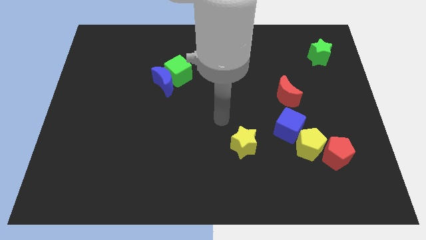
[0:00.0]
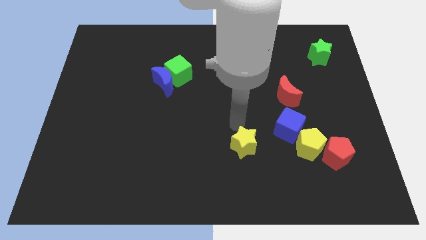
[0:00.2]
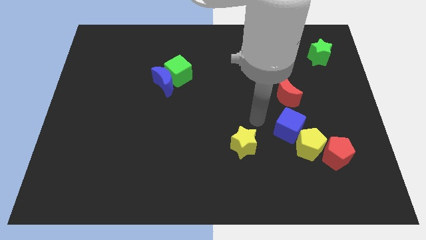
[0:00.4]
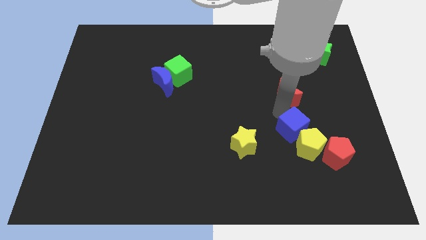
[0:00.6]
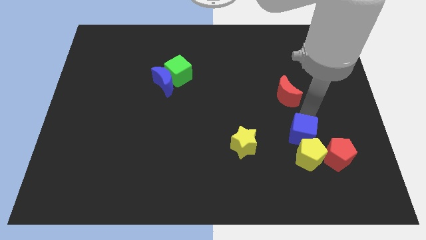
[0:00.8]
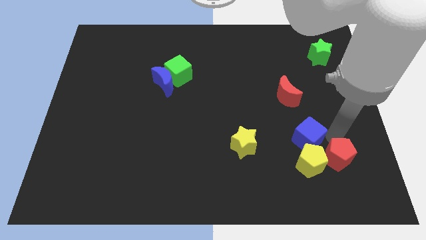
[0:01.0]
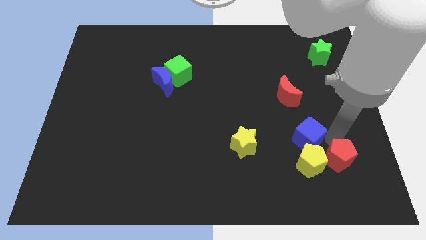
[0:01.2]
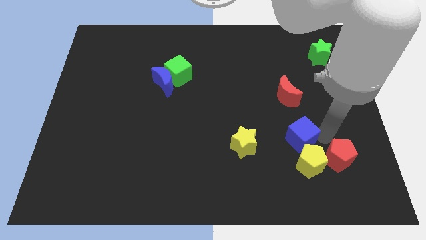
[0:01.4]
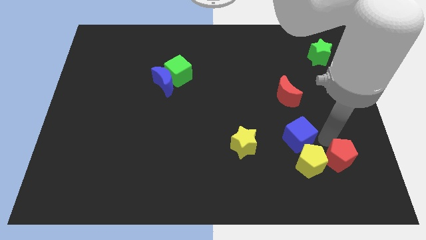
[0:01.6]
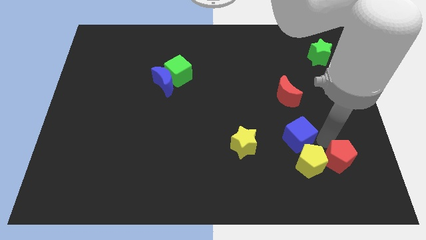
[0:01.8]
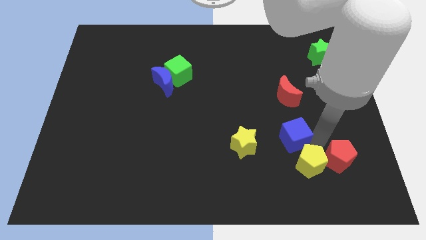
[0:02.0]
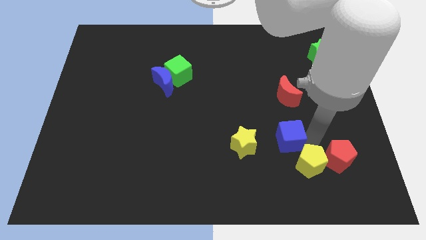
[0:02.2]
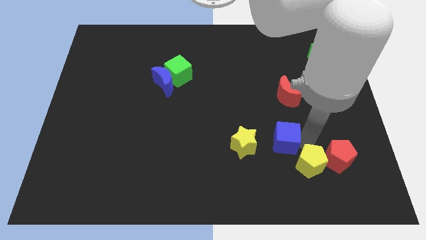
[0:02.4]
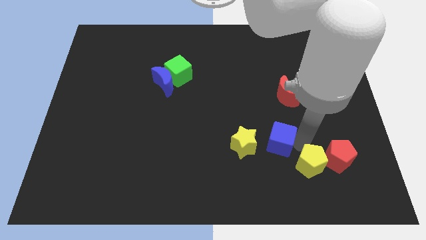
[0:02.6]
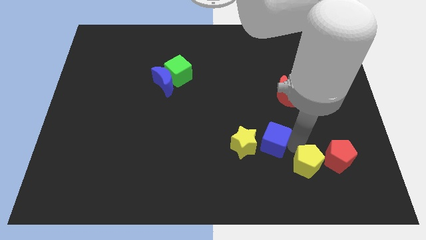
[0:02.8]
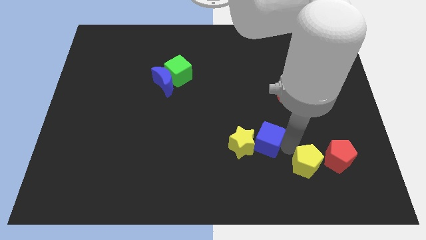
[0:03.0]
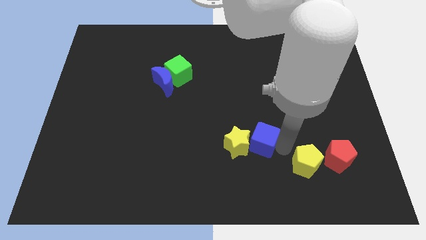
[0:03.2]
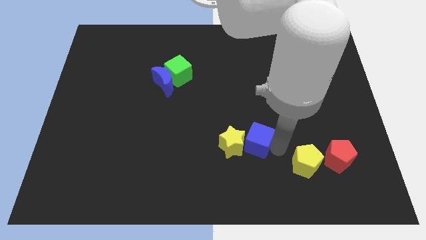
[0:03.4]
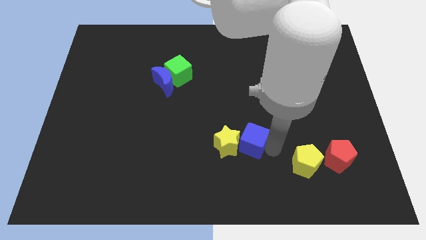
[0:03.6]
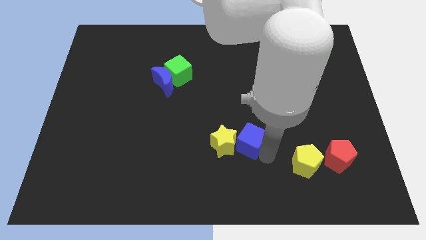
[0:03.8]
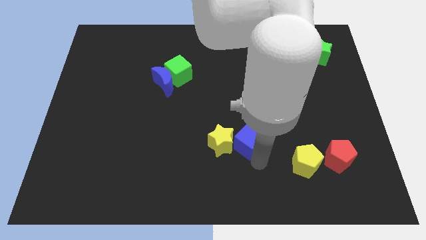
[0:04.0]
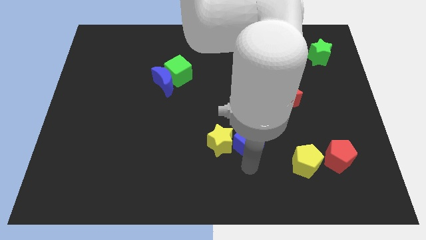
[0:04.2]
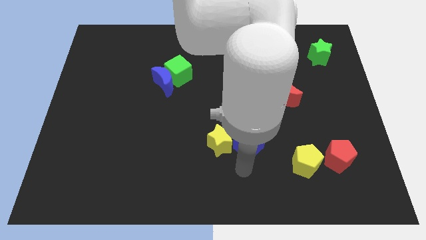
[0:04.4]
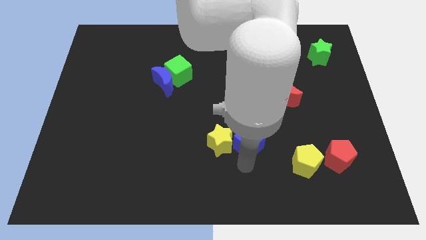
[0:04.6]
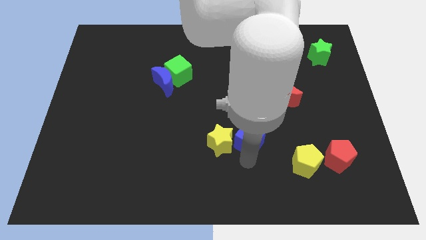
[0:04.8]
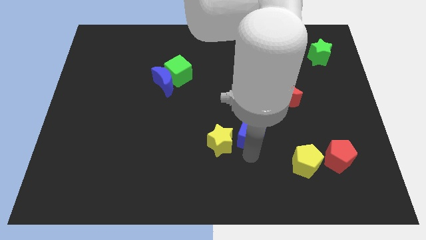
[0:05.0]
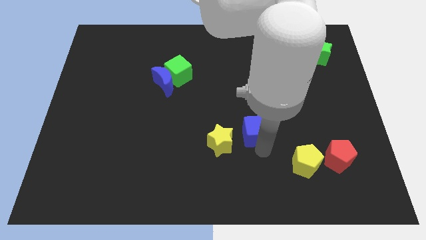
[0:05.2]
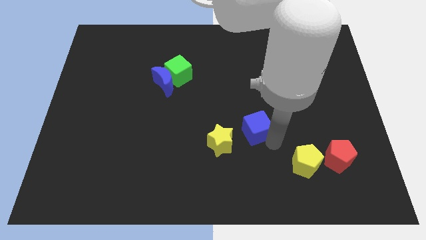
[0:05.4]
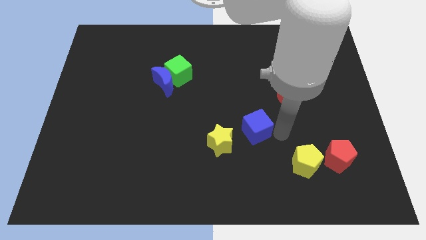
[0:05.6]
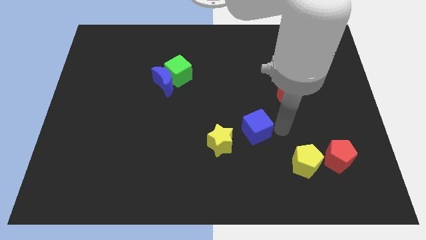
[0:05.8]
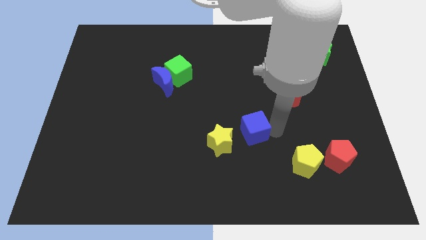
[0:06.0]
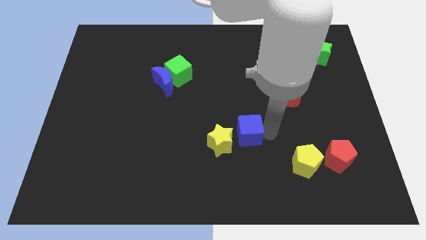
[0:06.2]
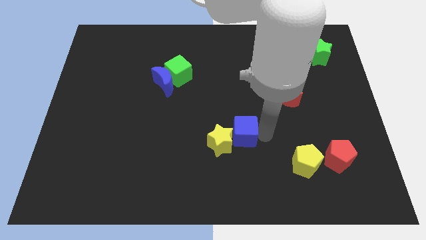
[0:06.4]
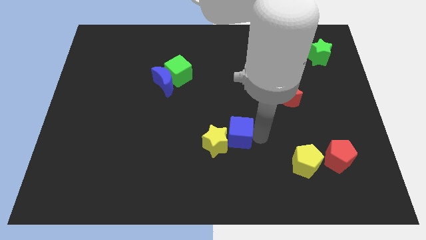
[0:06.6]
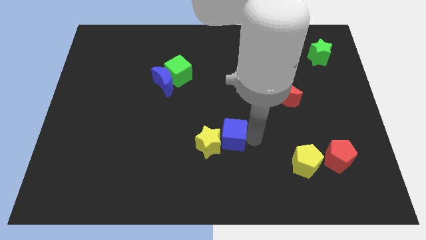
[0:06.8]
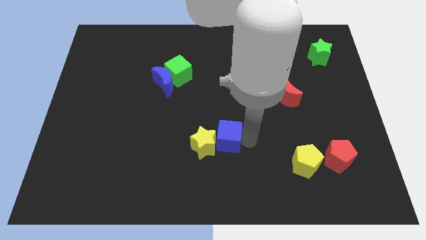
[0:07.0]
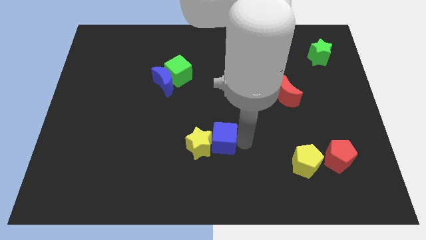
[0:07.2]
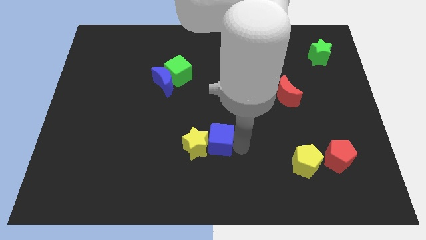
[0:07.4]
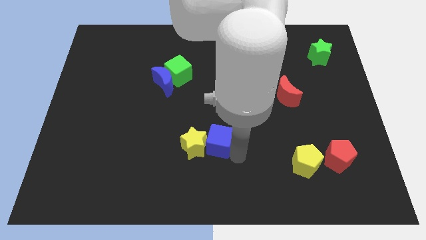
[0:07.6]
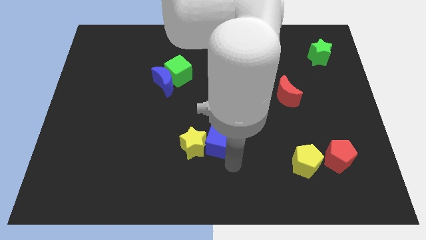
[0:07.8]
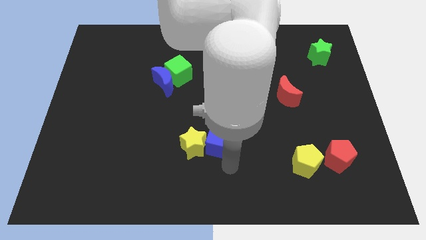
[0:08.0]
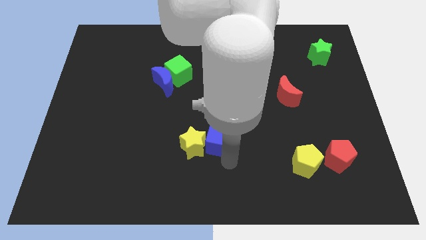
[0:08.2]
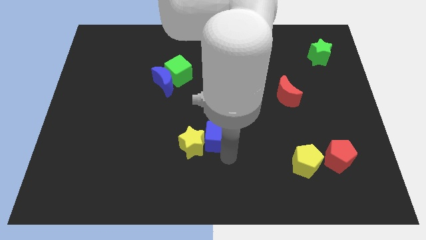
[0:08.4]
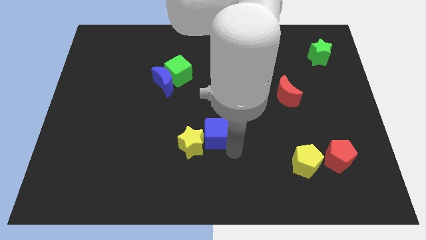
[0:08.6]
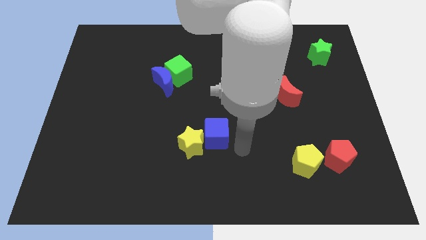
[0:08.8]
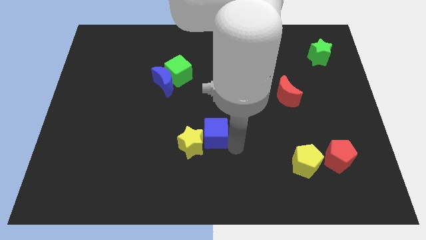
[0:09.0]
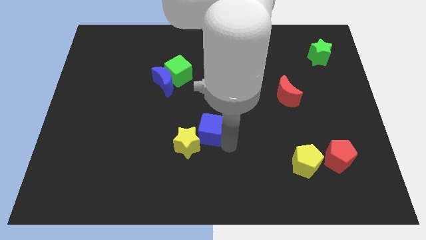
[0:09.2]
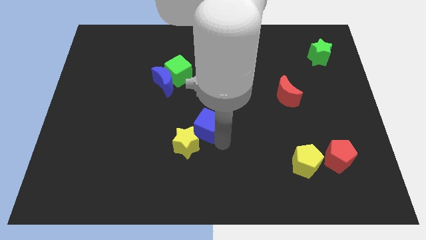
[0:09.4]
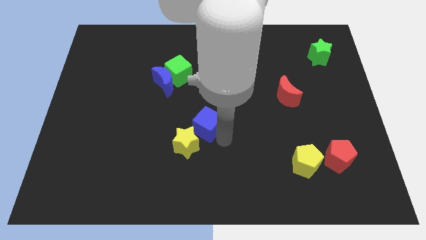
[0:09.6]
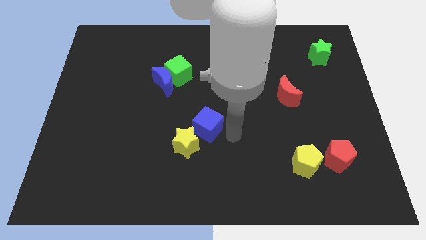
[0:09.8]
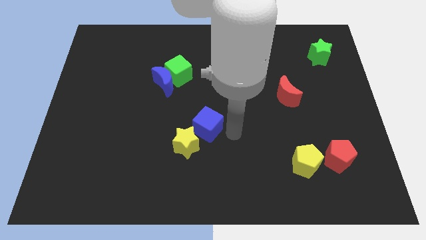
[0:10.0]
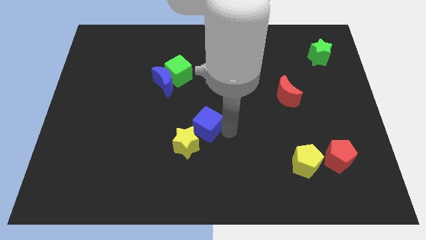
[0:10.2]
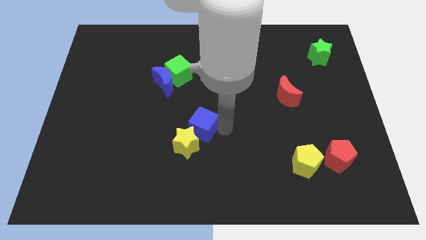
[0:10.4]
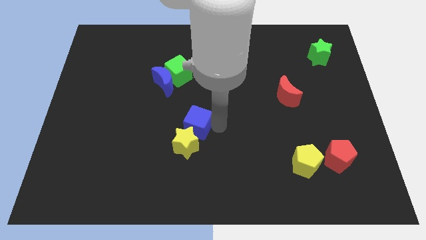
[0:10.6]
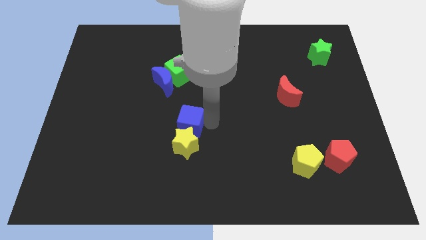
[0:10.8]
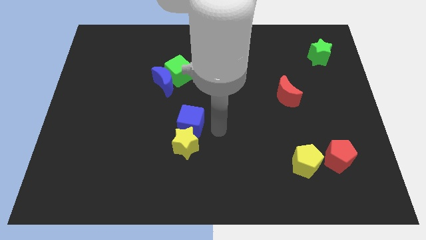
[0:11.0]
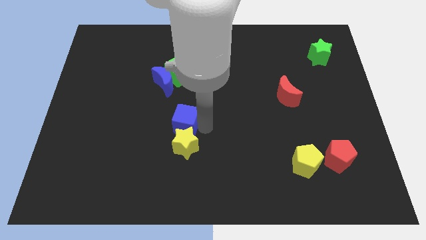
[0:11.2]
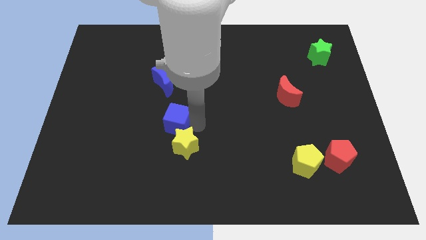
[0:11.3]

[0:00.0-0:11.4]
put the blue cube to the bottom of the blue moon

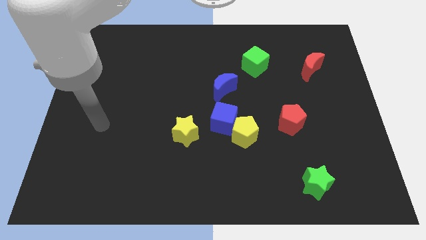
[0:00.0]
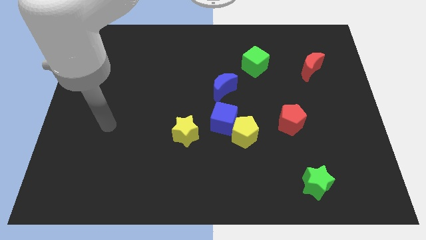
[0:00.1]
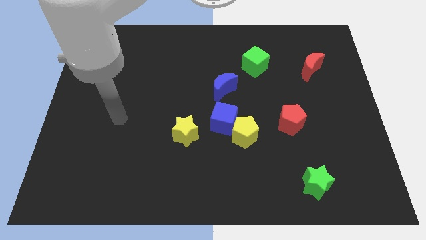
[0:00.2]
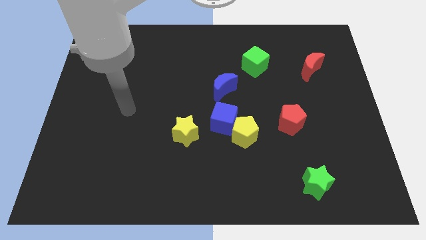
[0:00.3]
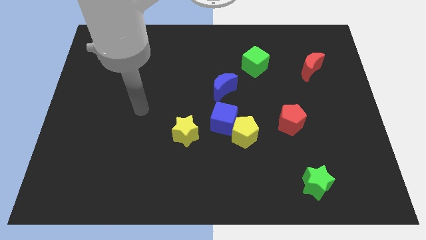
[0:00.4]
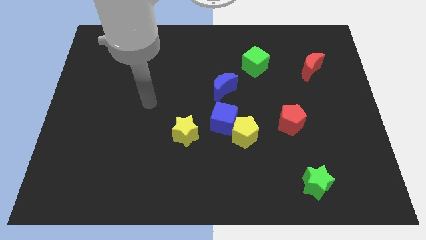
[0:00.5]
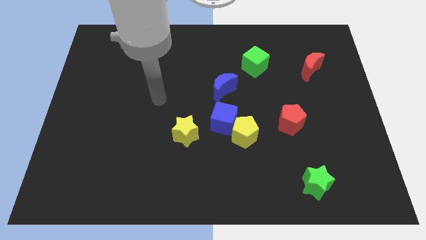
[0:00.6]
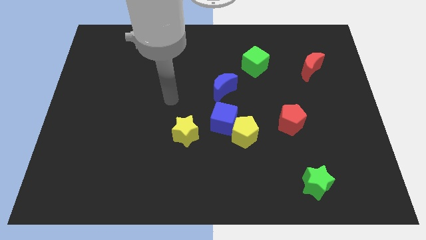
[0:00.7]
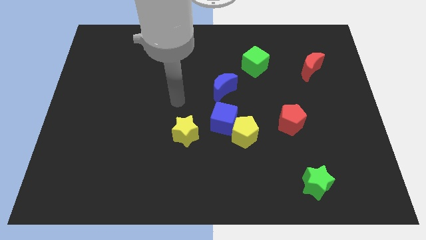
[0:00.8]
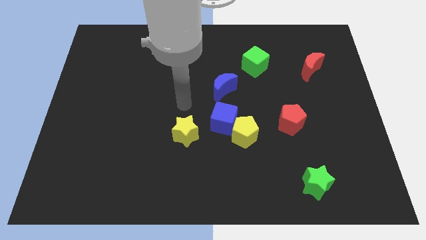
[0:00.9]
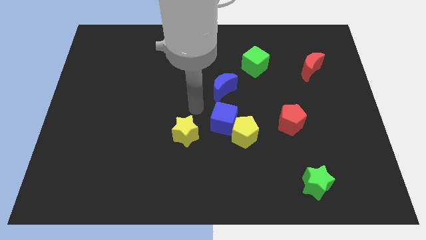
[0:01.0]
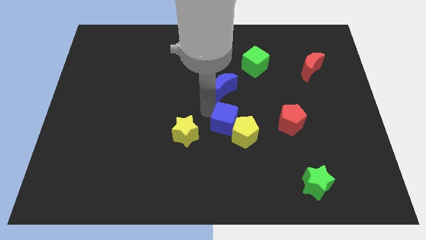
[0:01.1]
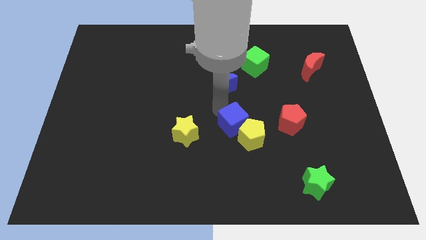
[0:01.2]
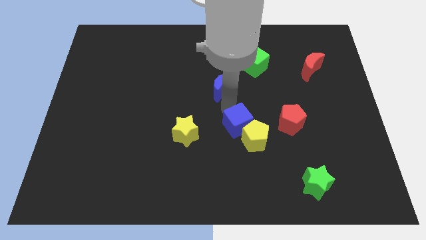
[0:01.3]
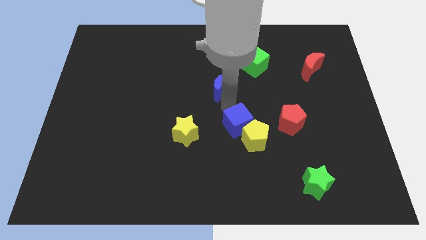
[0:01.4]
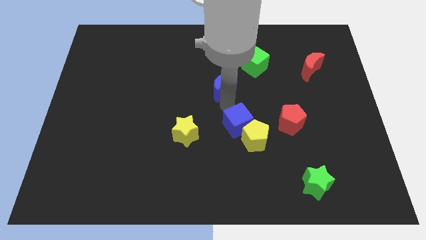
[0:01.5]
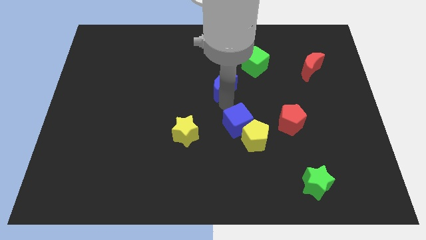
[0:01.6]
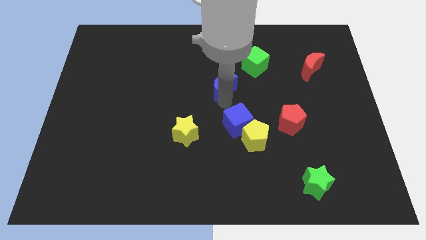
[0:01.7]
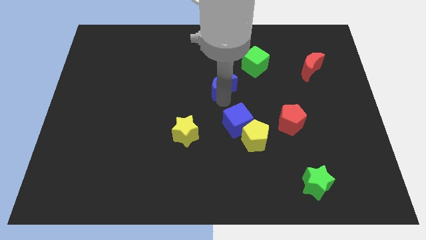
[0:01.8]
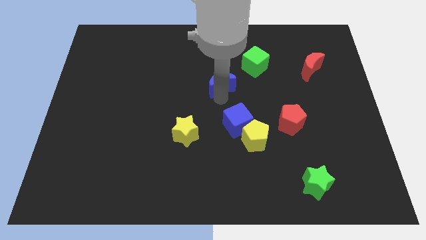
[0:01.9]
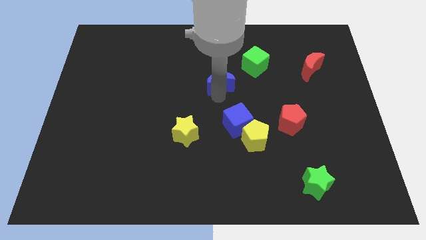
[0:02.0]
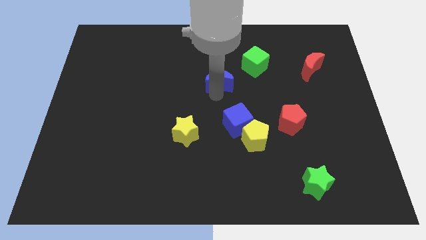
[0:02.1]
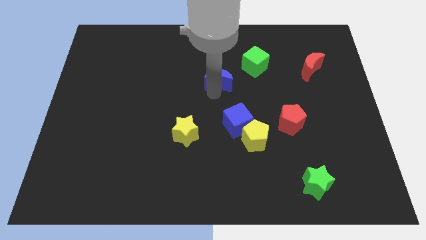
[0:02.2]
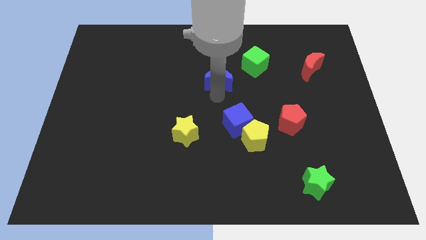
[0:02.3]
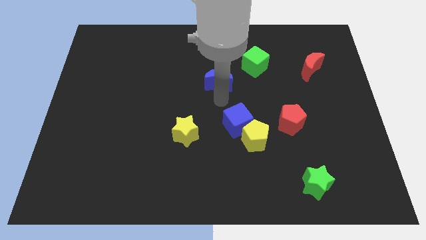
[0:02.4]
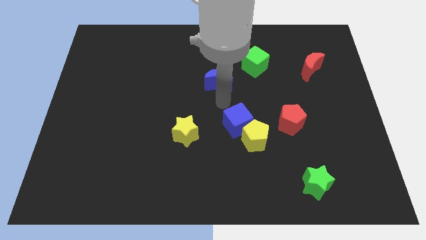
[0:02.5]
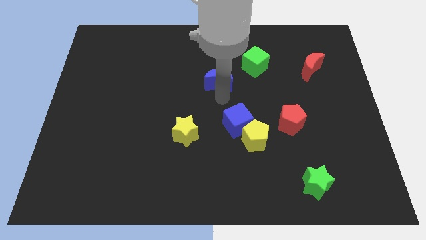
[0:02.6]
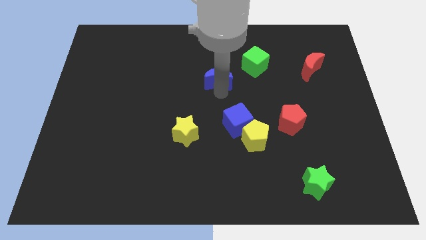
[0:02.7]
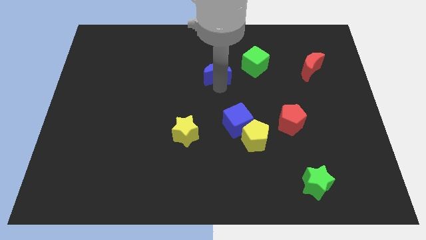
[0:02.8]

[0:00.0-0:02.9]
put the blue moon to the left side of the green cube
